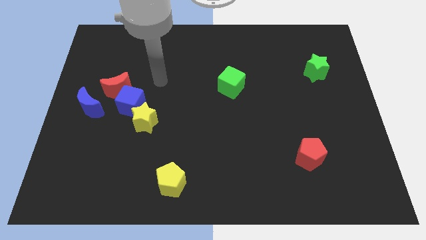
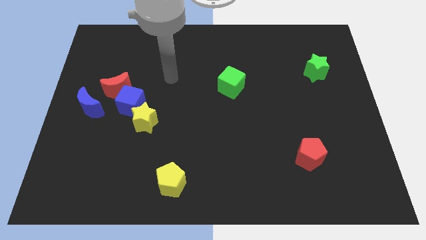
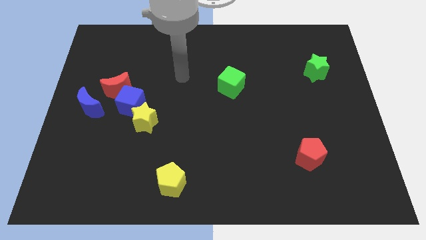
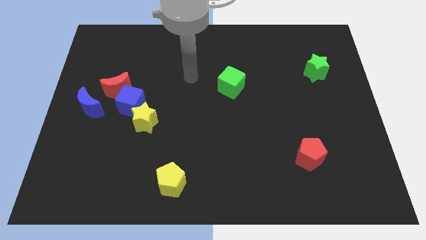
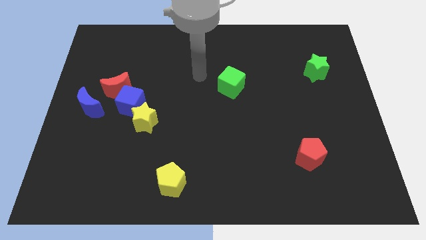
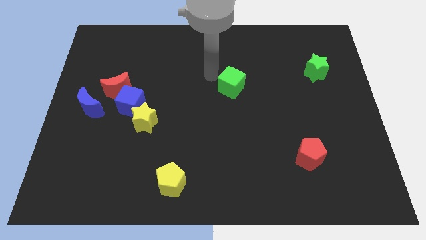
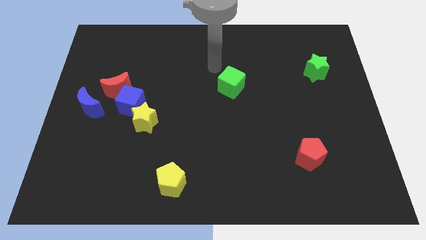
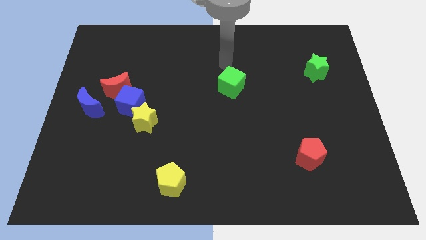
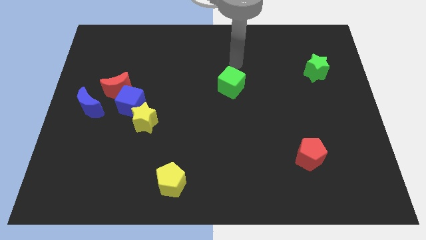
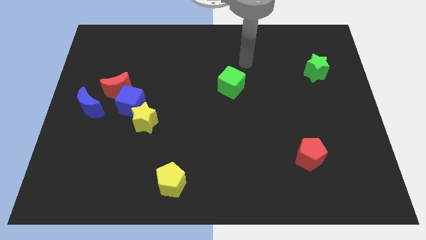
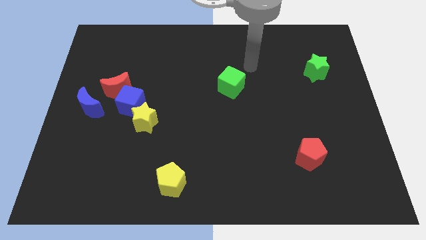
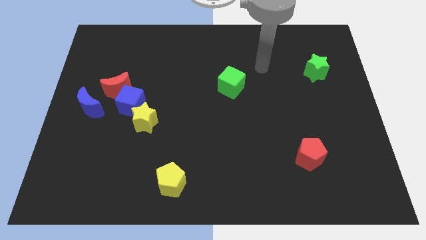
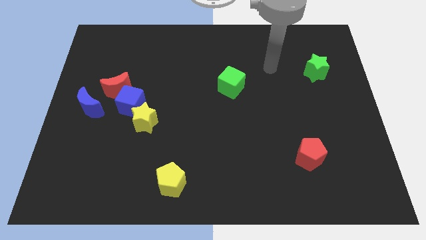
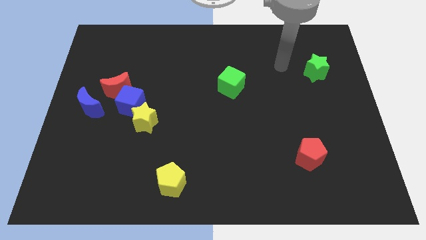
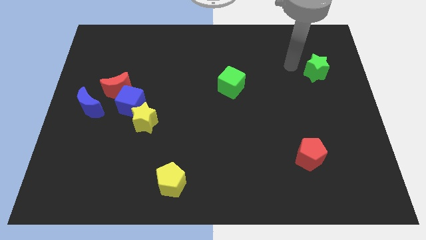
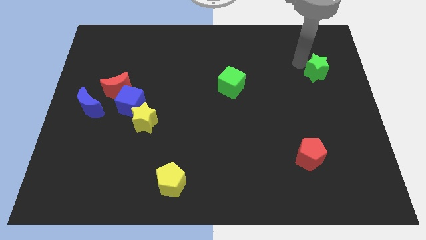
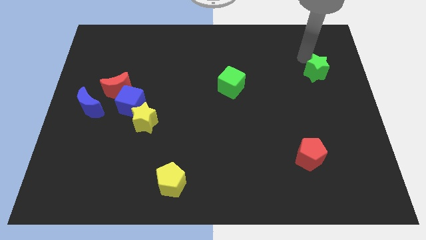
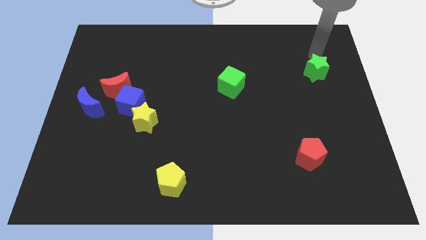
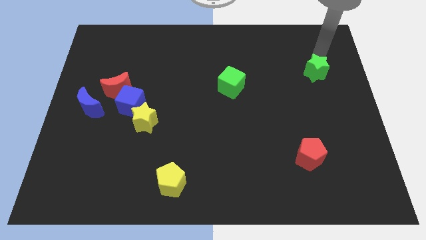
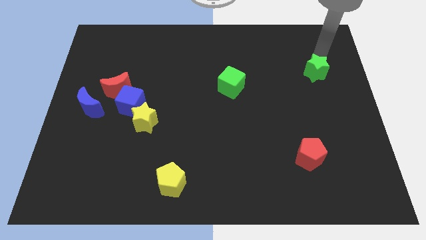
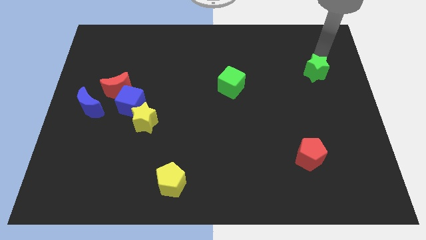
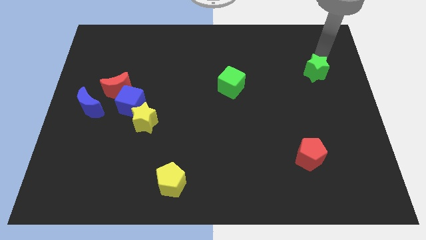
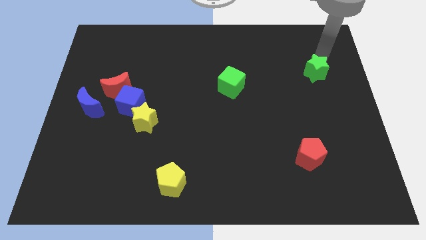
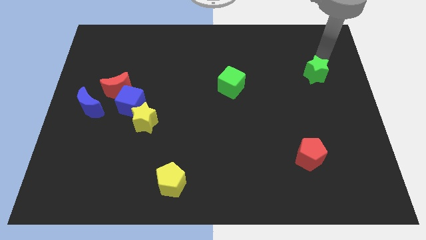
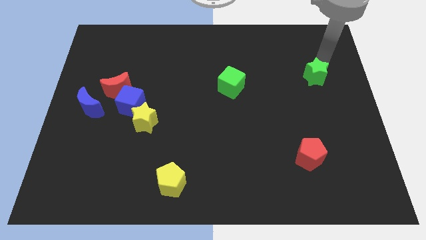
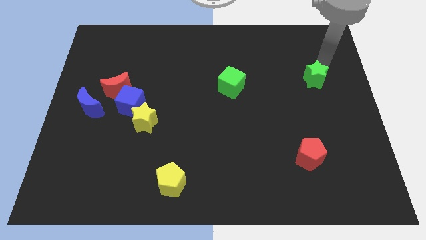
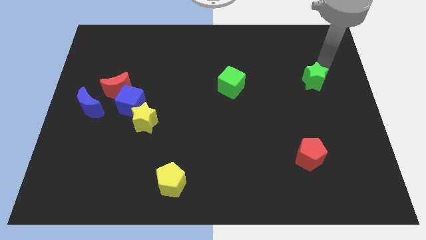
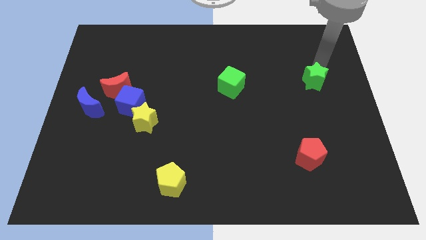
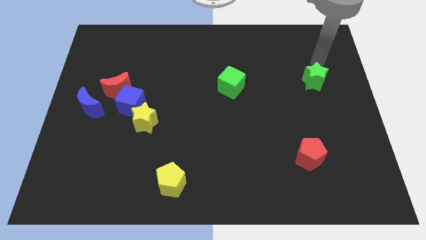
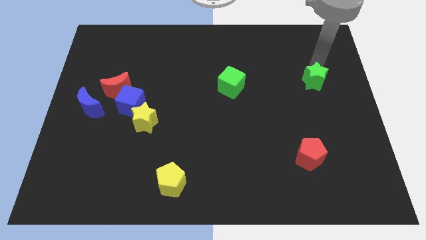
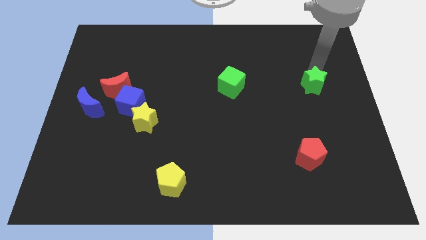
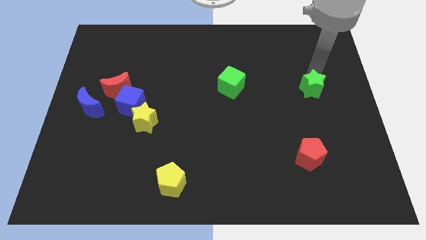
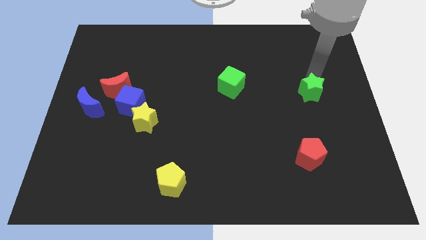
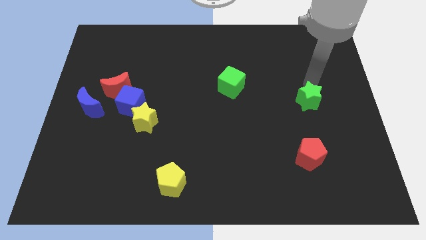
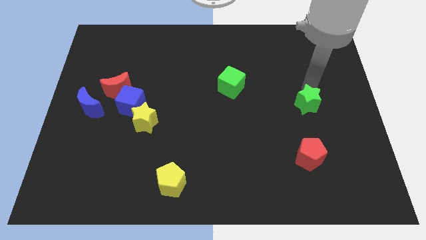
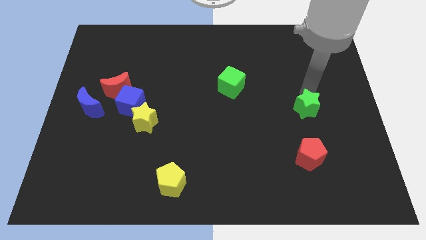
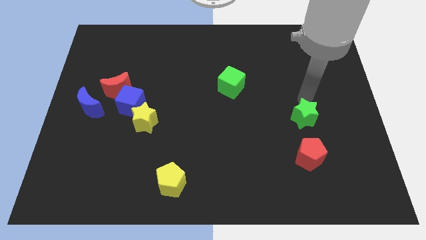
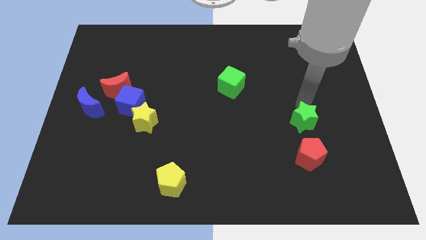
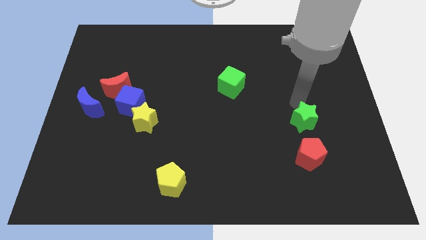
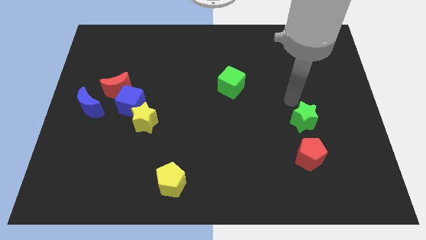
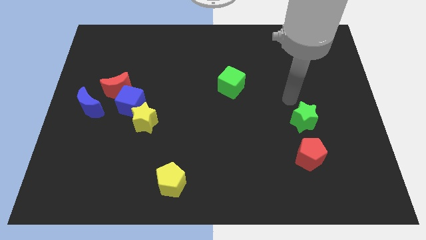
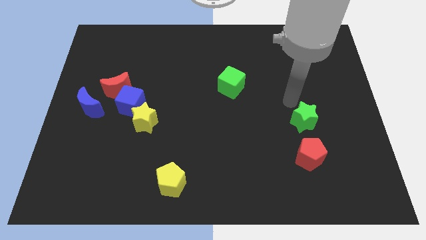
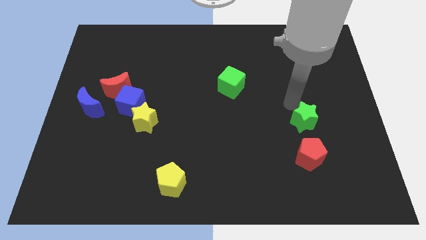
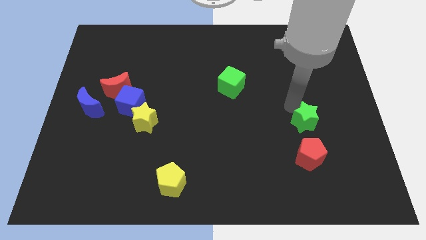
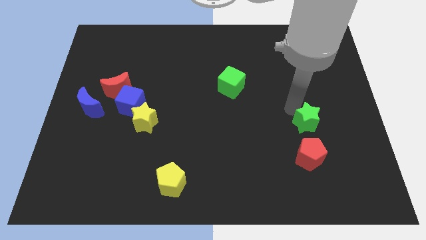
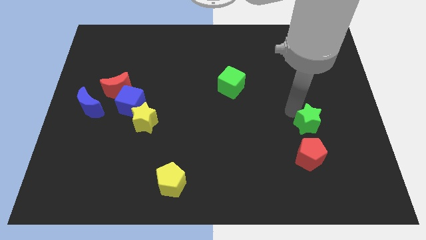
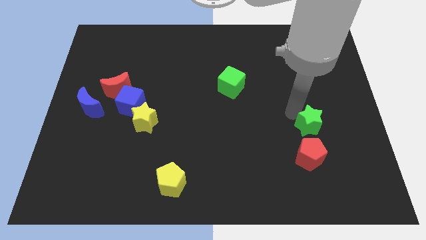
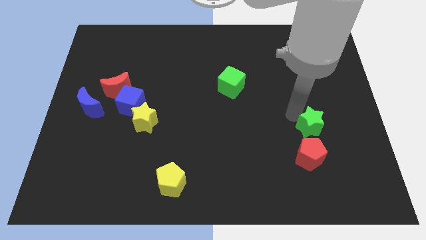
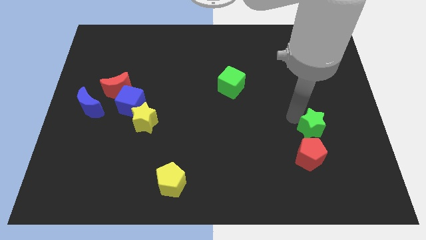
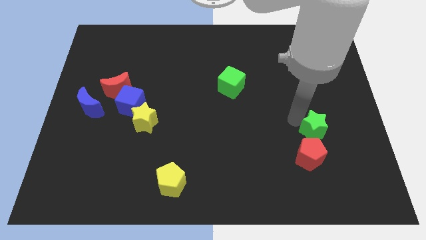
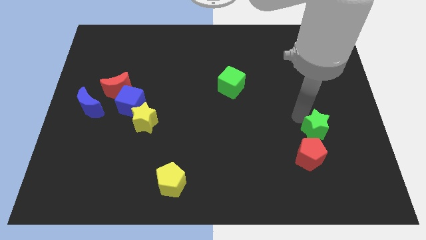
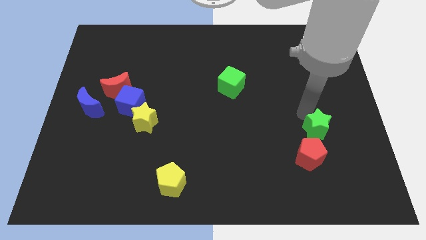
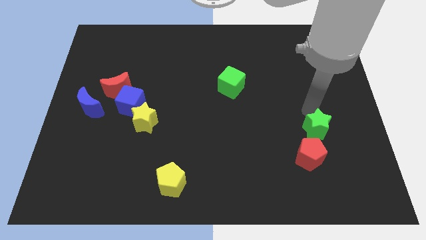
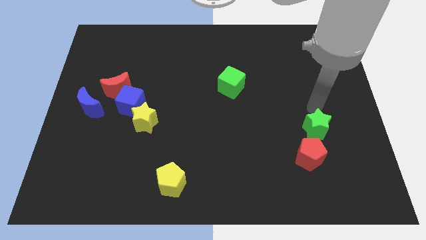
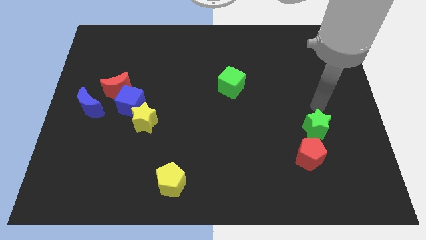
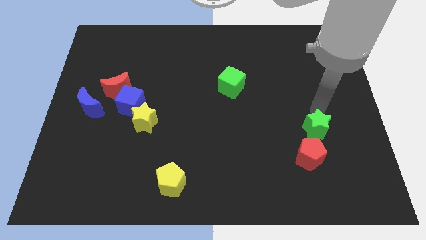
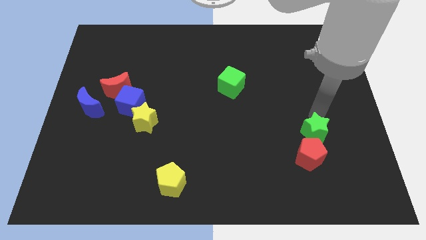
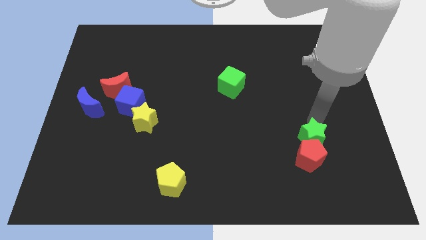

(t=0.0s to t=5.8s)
push the green star to the red pentagon

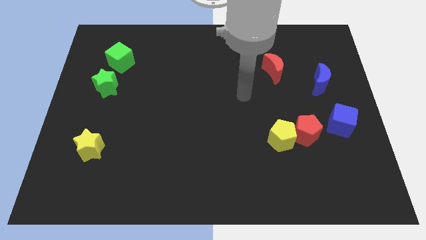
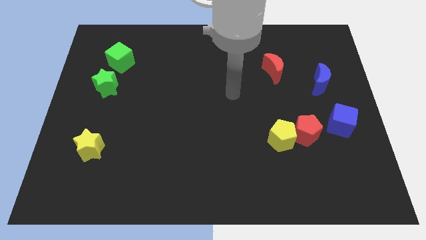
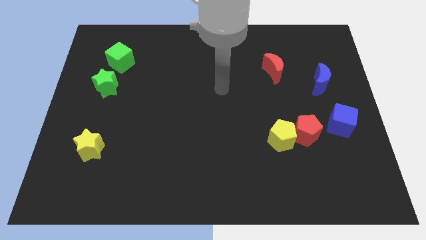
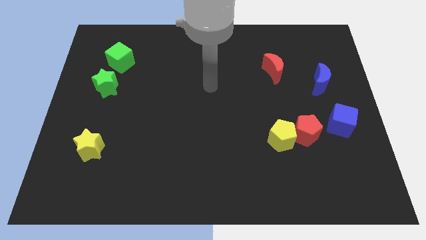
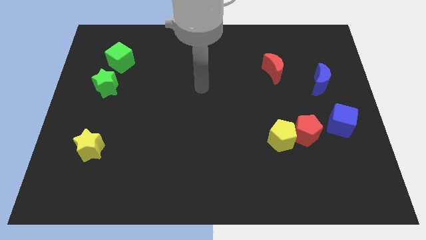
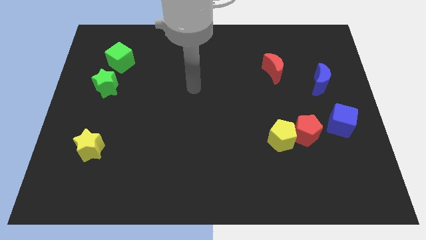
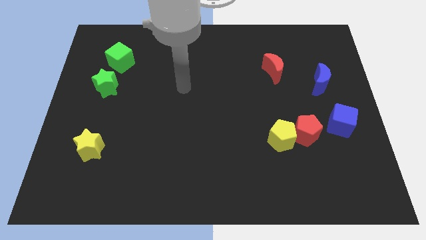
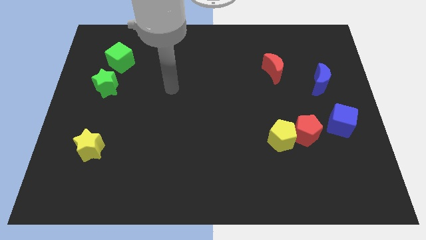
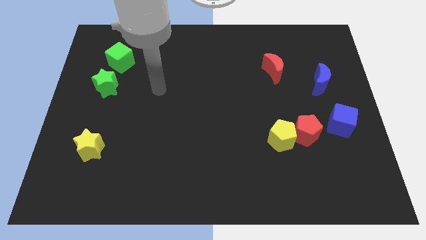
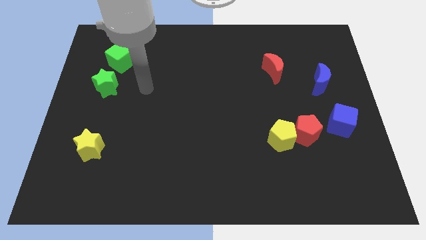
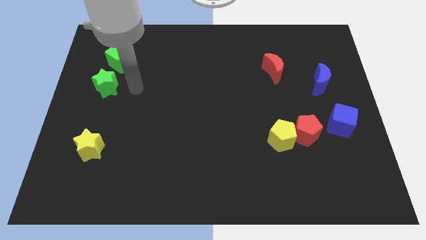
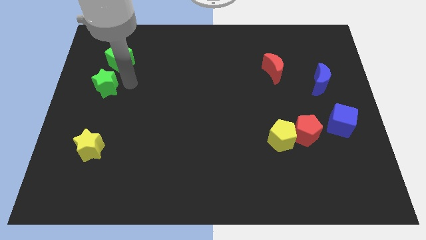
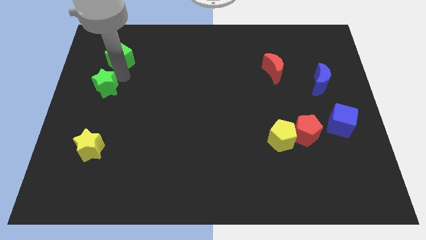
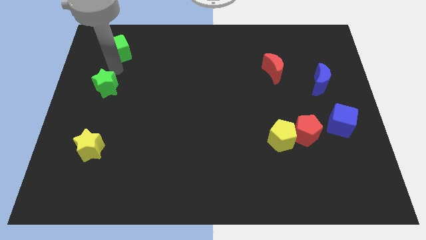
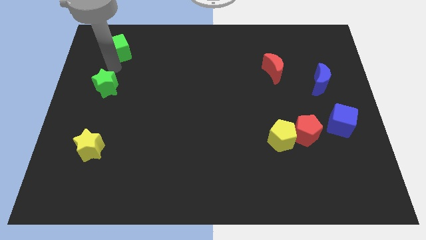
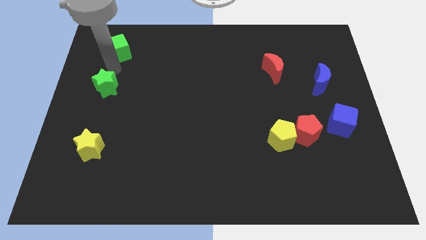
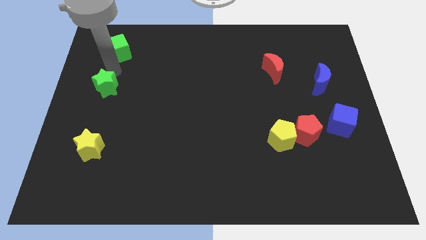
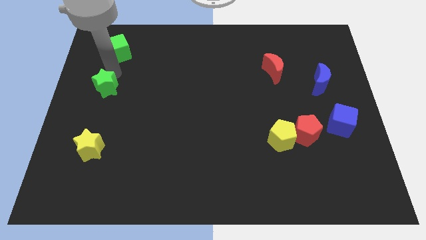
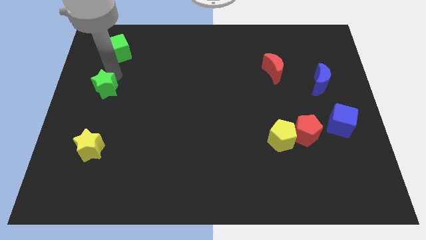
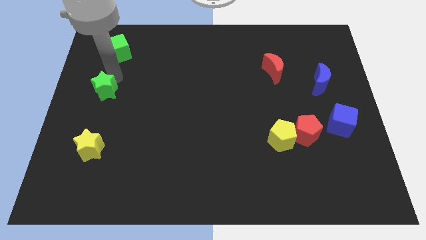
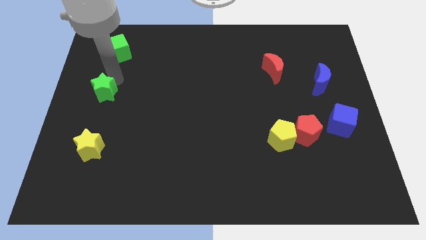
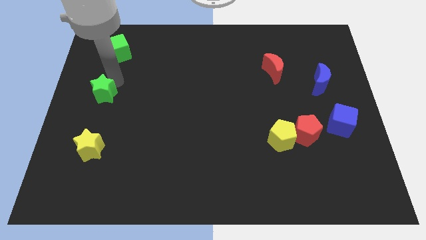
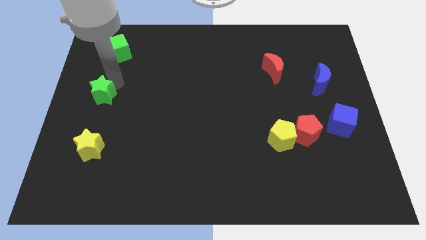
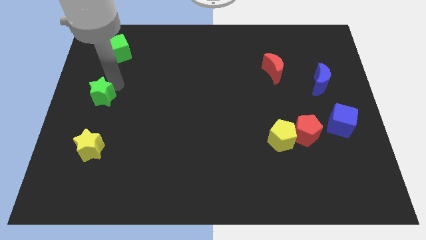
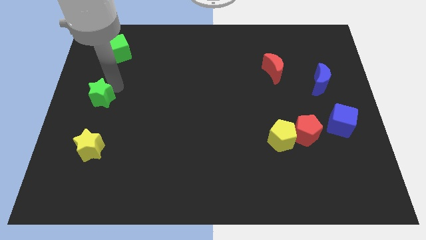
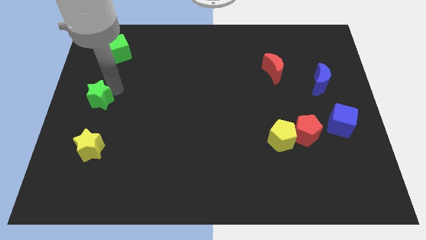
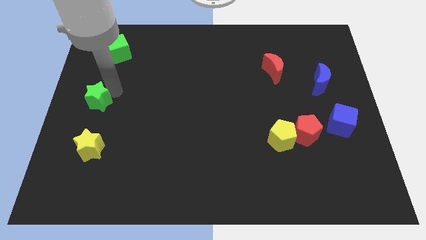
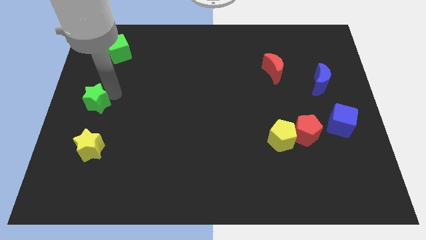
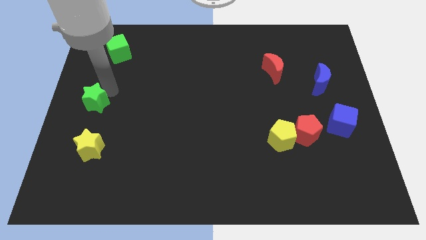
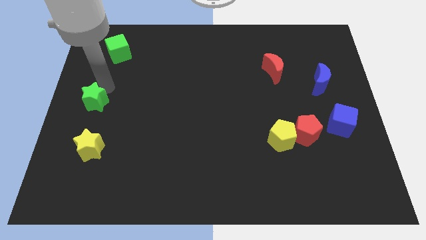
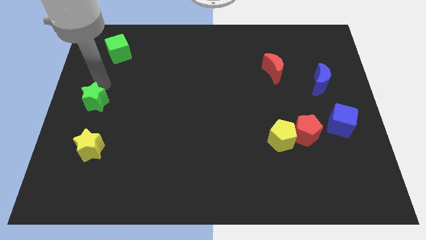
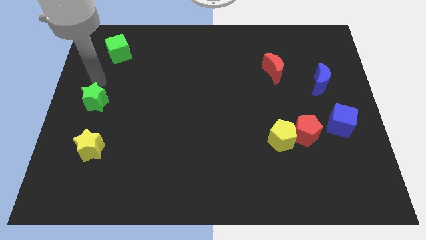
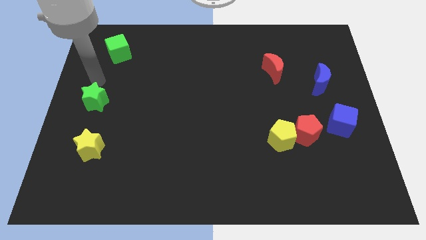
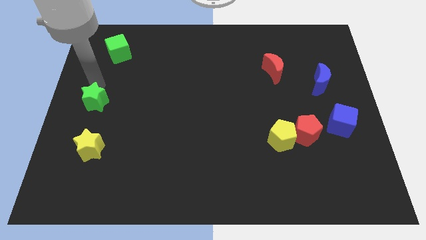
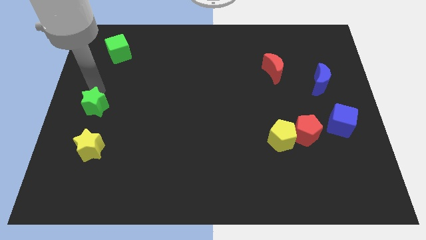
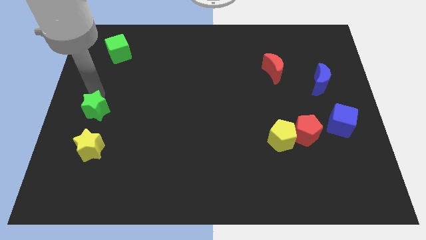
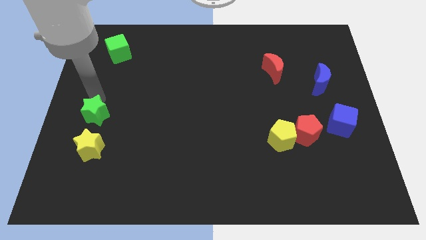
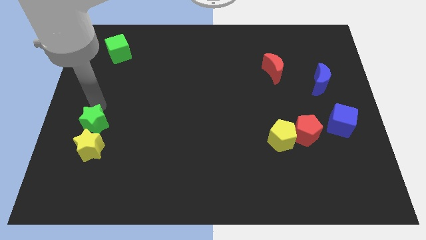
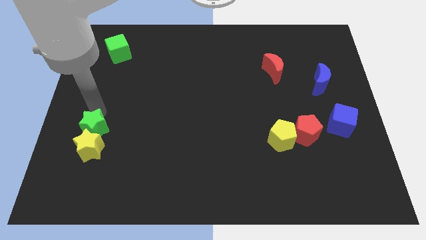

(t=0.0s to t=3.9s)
put the green star towards the yellow star
